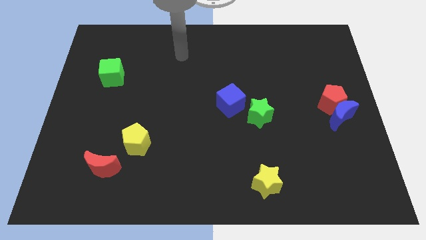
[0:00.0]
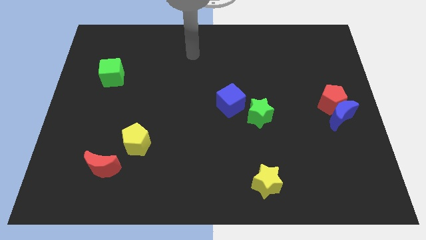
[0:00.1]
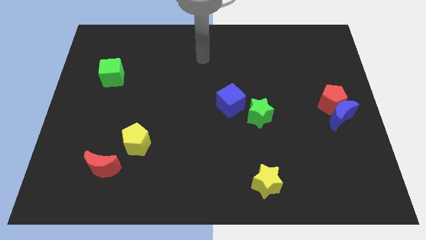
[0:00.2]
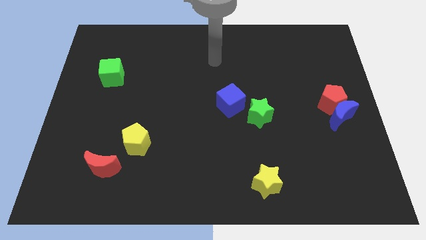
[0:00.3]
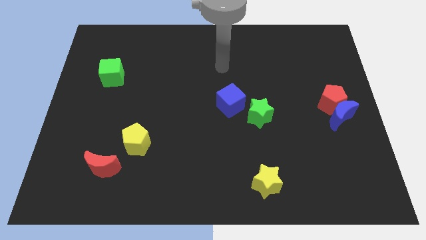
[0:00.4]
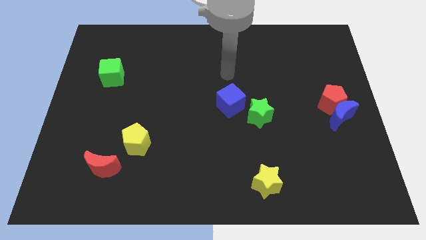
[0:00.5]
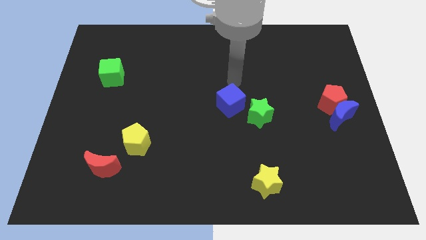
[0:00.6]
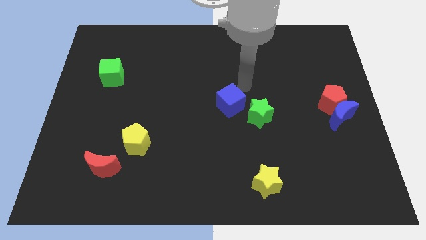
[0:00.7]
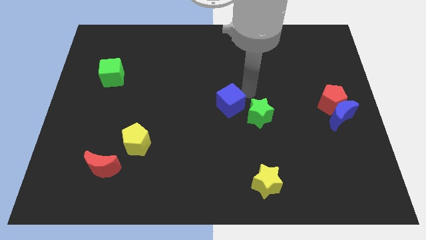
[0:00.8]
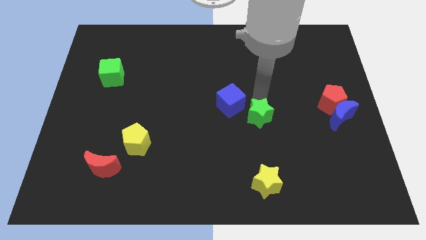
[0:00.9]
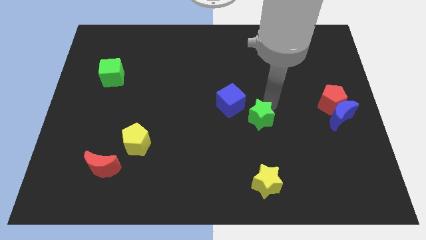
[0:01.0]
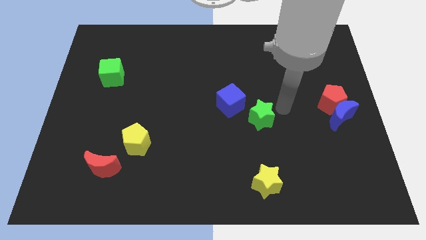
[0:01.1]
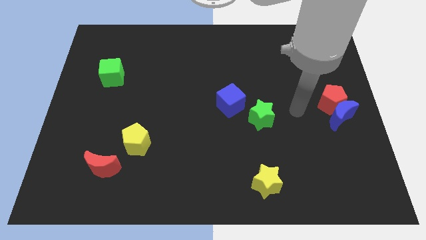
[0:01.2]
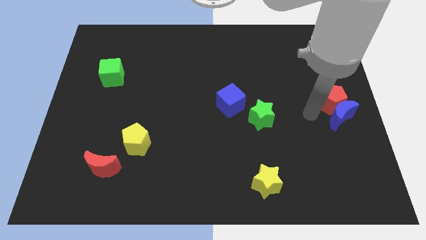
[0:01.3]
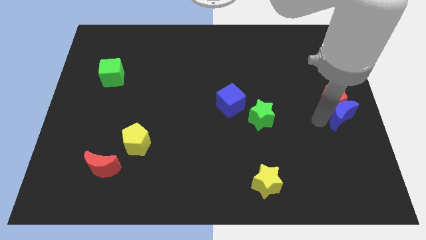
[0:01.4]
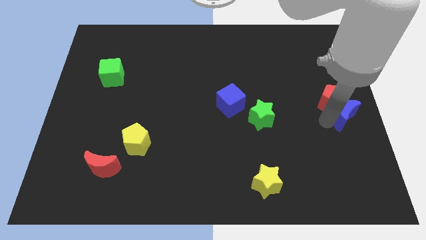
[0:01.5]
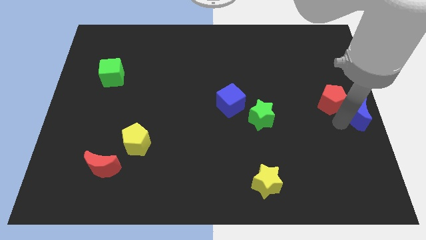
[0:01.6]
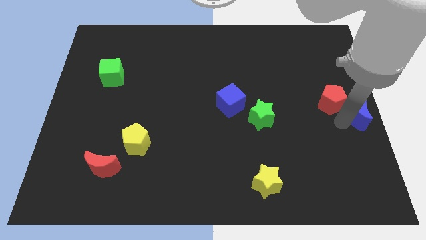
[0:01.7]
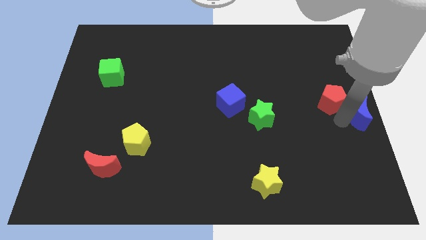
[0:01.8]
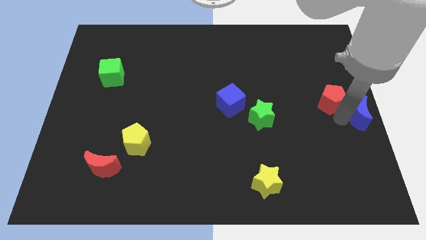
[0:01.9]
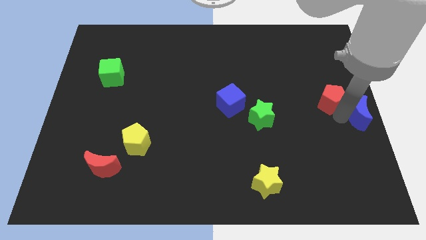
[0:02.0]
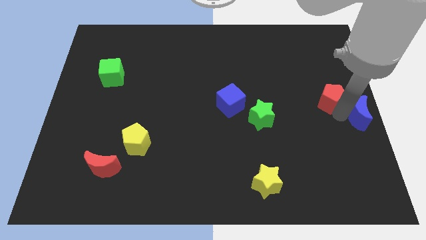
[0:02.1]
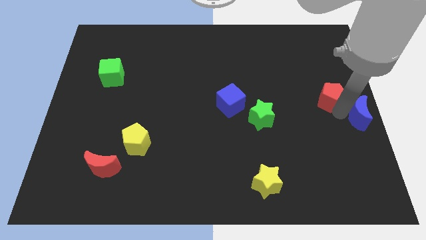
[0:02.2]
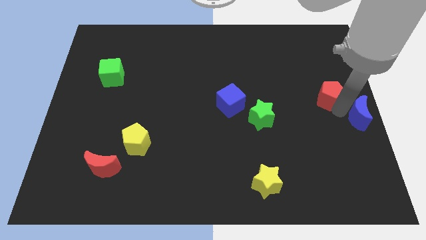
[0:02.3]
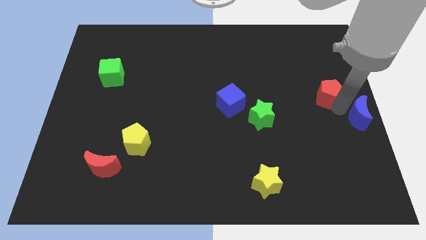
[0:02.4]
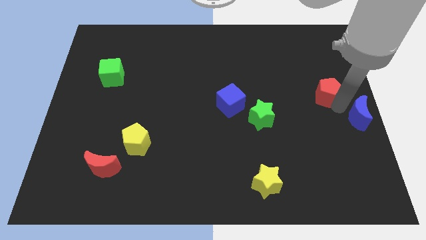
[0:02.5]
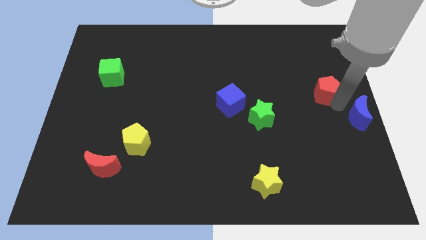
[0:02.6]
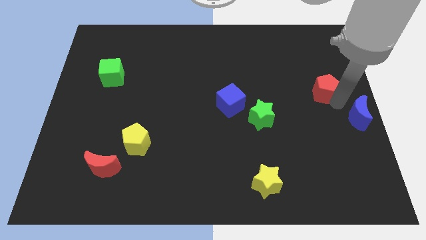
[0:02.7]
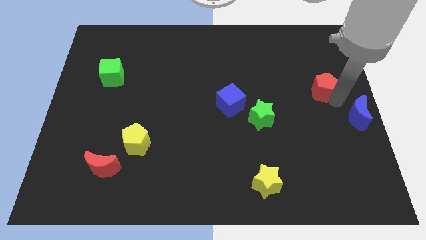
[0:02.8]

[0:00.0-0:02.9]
move the red pentagon away from the blue moon

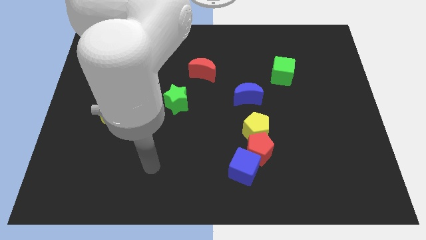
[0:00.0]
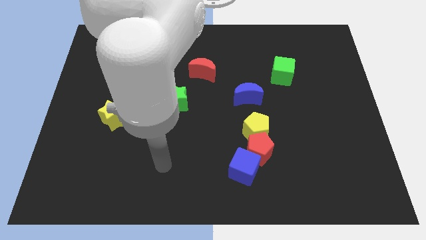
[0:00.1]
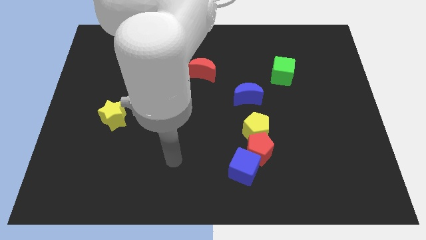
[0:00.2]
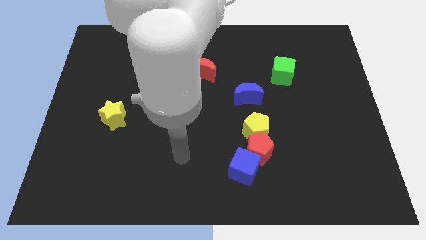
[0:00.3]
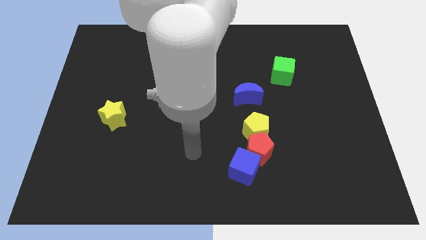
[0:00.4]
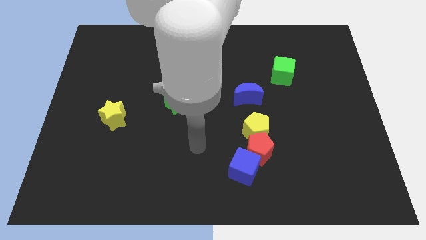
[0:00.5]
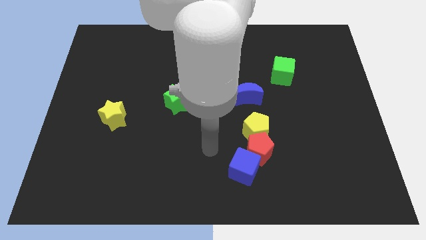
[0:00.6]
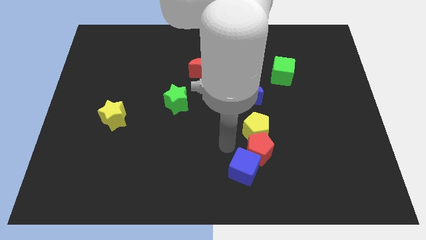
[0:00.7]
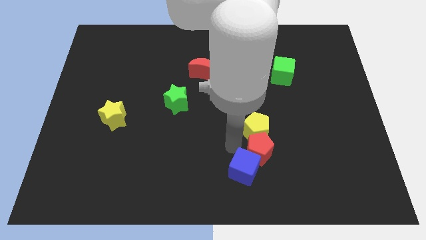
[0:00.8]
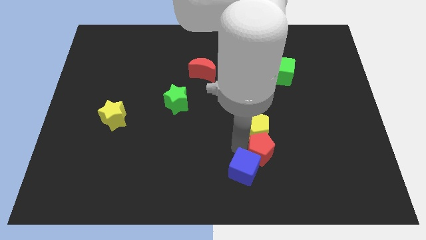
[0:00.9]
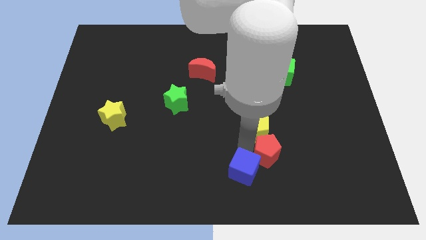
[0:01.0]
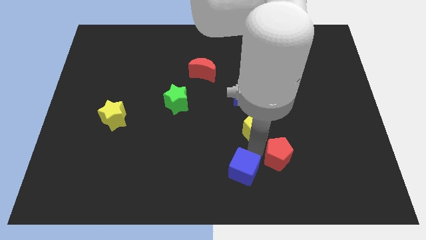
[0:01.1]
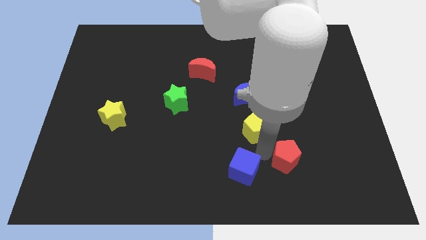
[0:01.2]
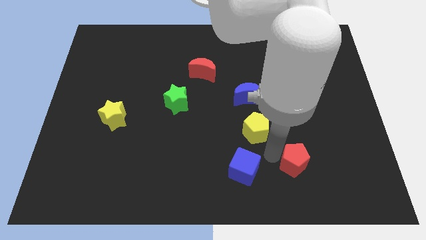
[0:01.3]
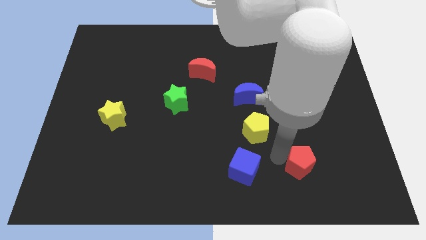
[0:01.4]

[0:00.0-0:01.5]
pull the red pentagon apart from the blue cube and yellow pentagon

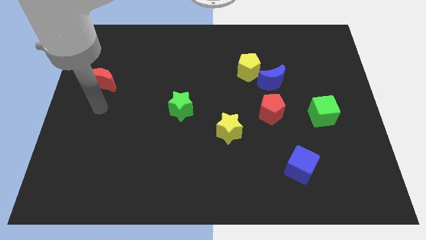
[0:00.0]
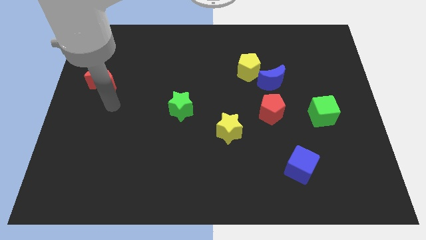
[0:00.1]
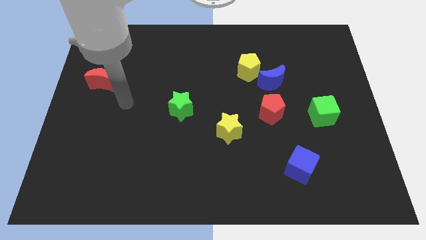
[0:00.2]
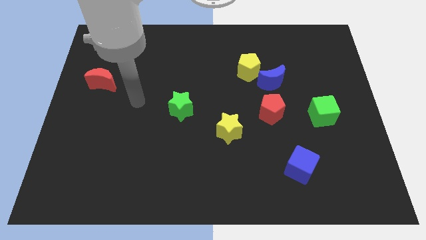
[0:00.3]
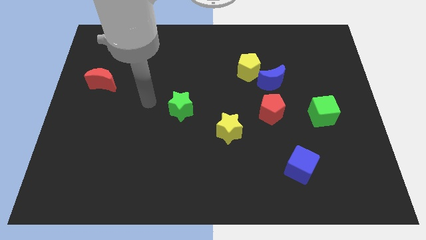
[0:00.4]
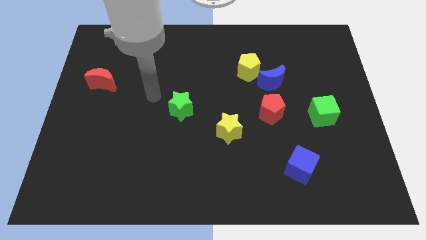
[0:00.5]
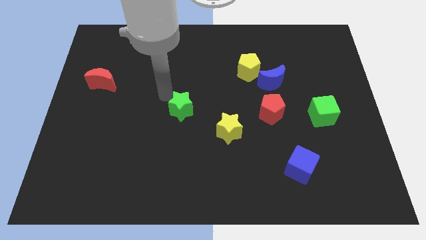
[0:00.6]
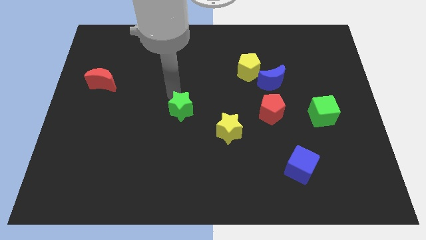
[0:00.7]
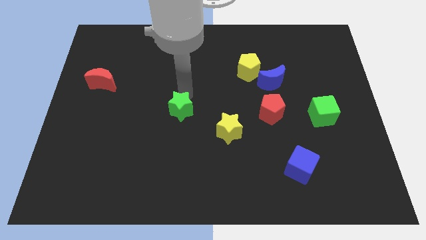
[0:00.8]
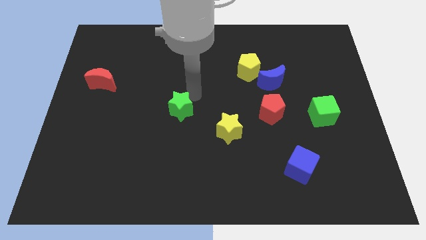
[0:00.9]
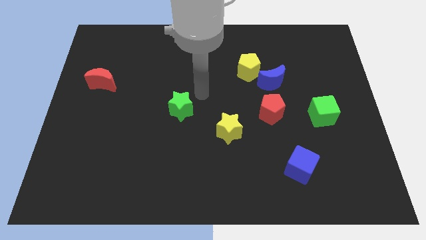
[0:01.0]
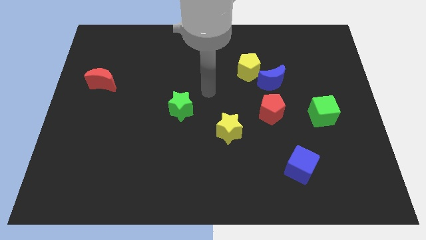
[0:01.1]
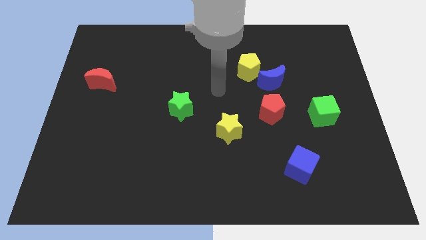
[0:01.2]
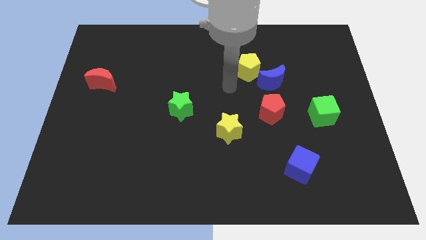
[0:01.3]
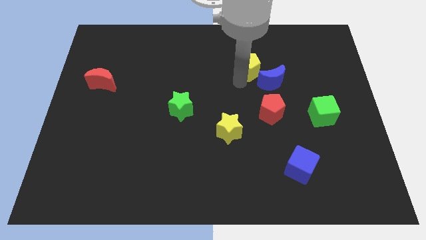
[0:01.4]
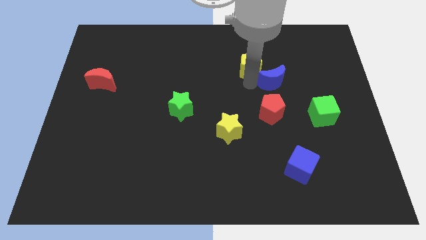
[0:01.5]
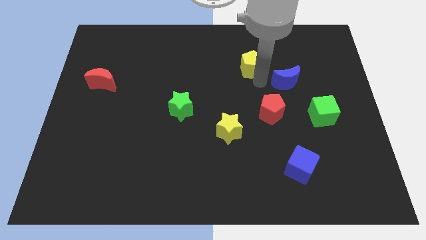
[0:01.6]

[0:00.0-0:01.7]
separate the yellow pentagon from the blue moon

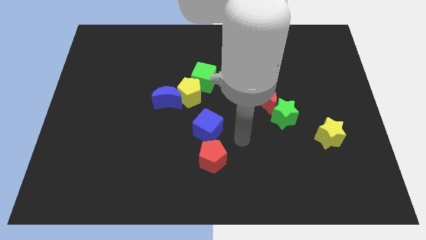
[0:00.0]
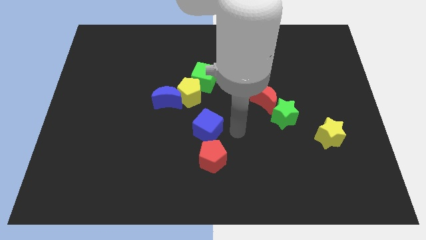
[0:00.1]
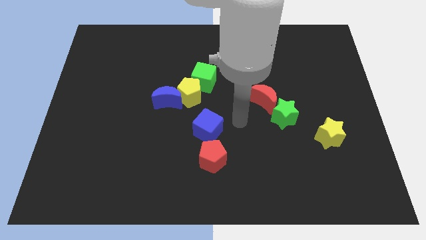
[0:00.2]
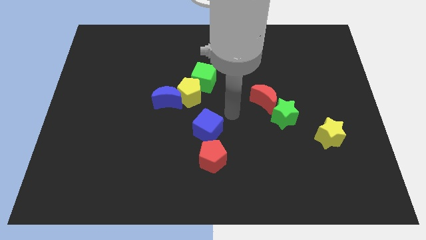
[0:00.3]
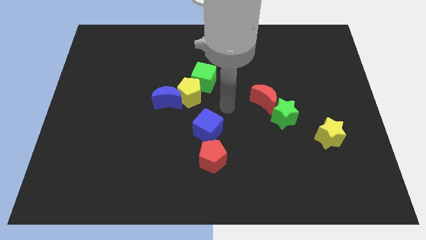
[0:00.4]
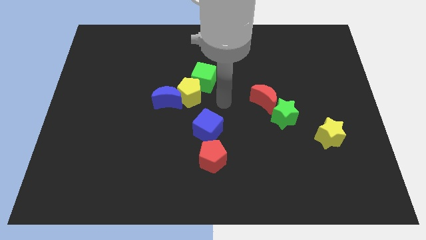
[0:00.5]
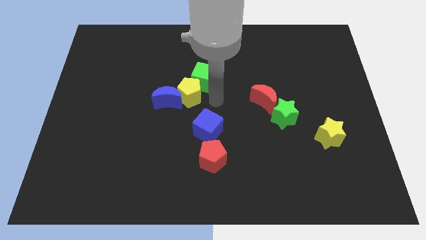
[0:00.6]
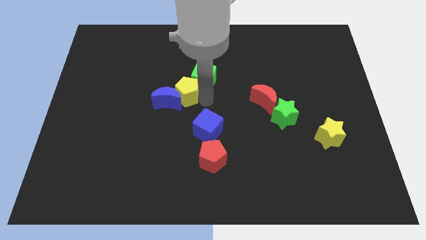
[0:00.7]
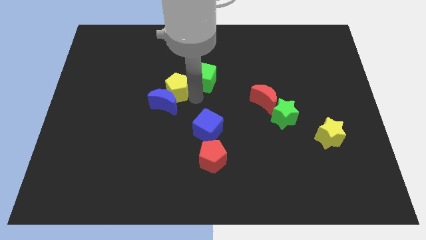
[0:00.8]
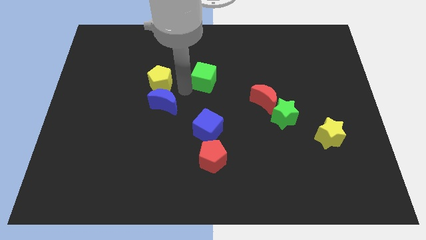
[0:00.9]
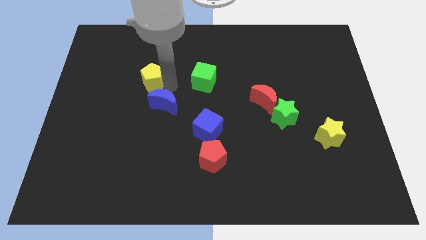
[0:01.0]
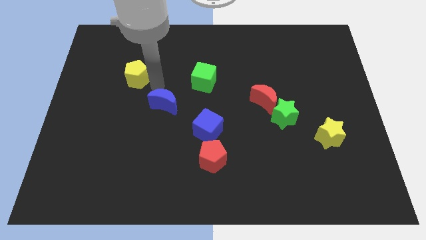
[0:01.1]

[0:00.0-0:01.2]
move the blue moon away from the yellow pentagon

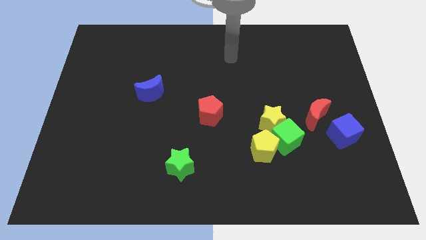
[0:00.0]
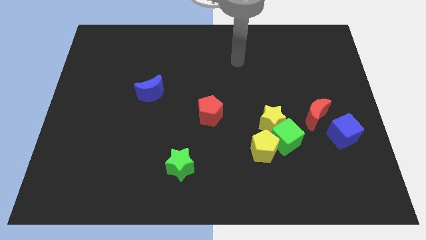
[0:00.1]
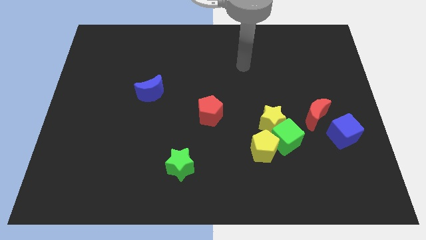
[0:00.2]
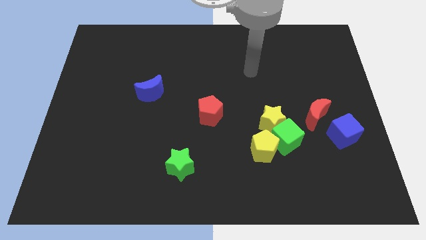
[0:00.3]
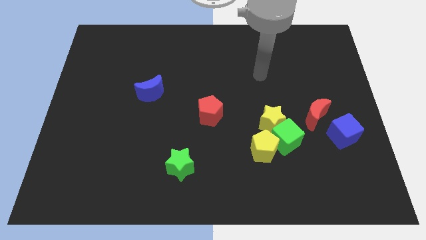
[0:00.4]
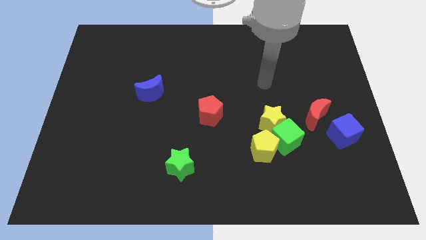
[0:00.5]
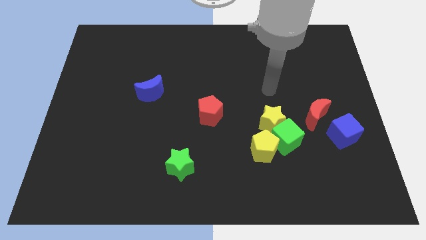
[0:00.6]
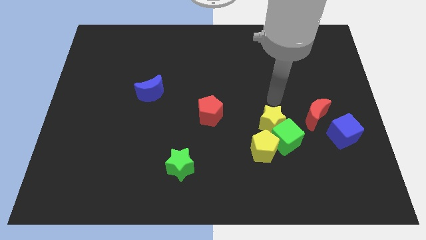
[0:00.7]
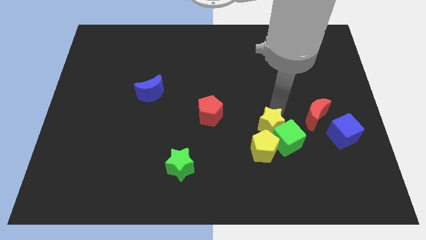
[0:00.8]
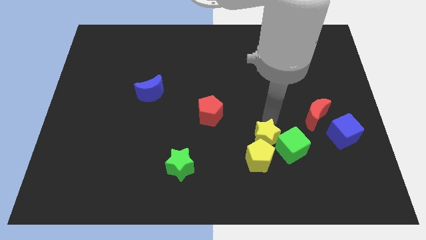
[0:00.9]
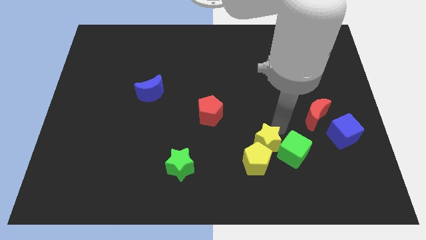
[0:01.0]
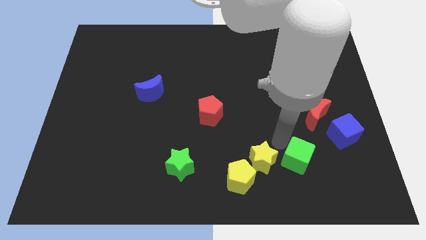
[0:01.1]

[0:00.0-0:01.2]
separate the yellow pentagon from the green cube and yellow star

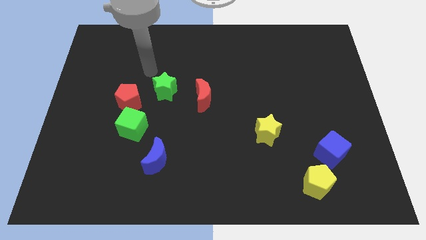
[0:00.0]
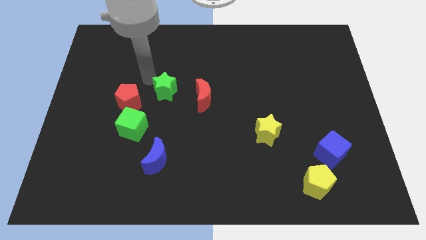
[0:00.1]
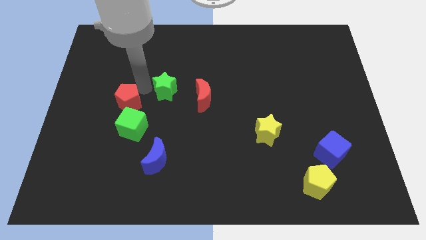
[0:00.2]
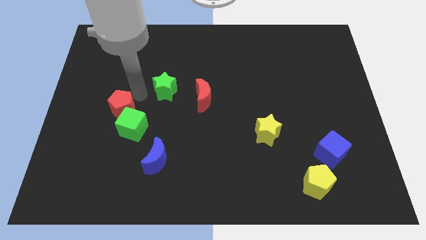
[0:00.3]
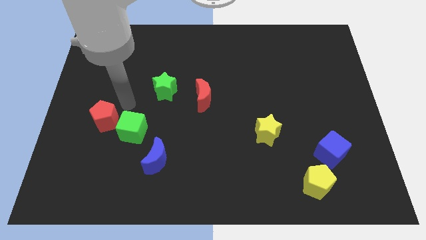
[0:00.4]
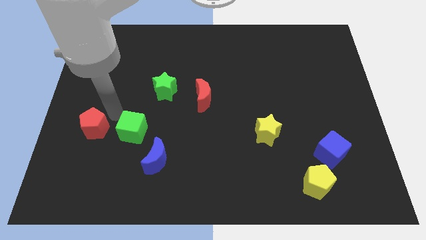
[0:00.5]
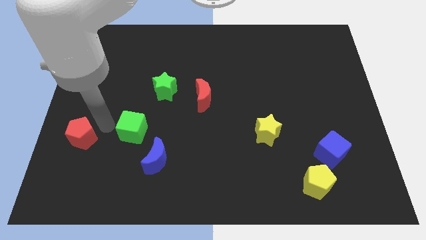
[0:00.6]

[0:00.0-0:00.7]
move the green cube away from the red pentagon
